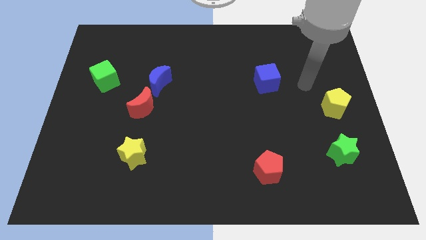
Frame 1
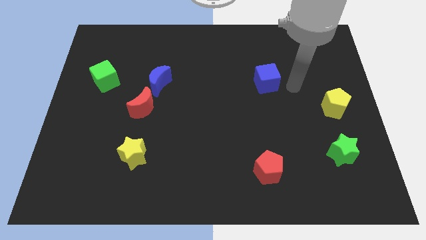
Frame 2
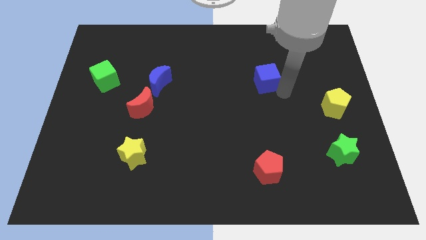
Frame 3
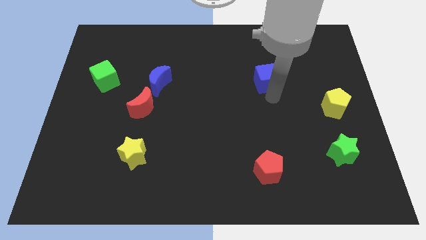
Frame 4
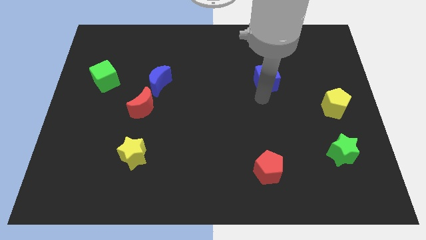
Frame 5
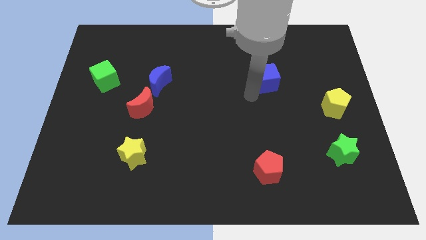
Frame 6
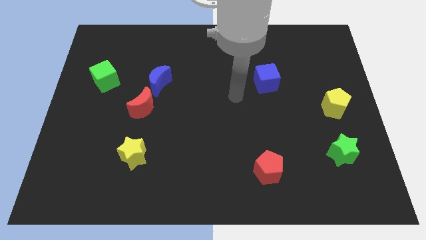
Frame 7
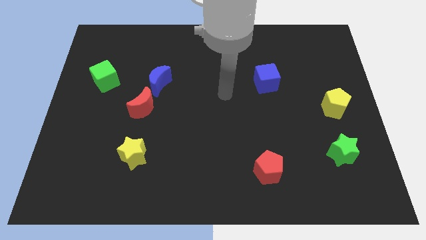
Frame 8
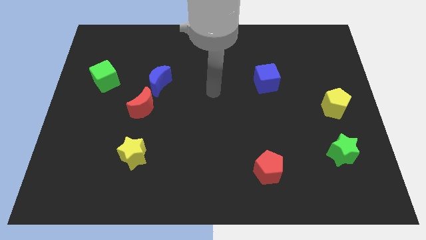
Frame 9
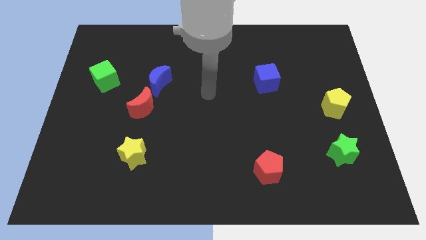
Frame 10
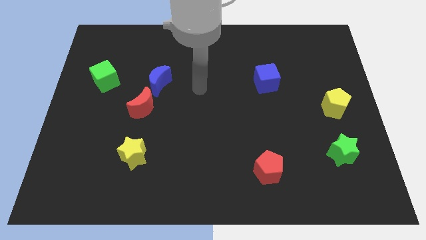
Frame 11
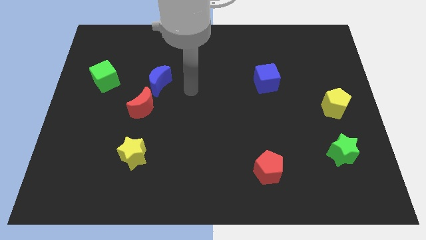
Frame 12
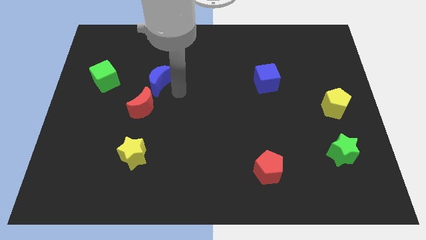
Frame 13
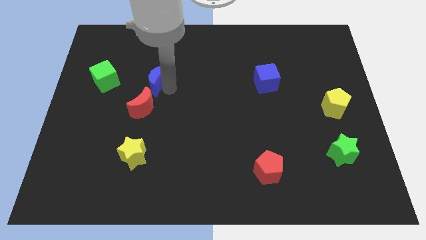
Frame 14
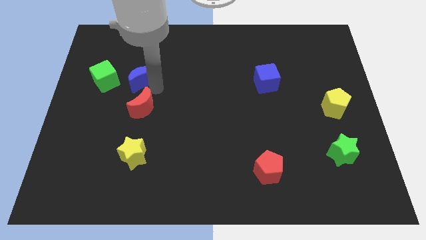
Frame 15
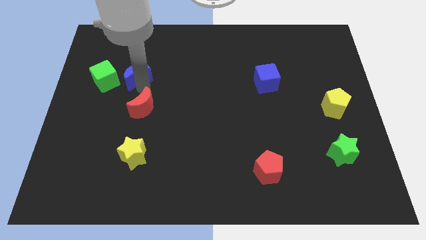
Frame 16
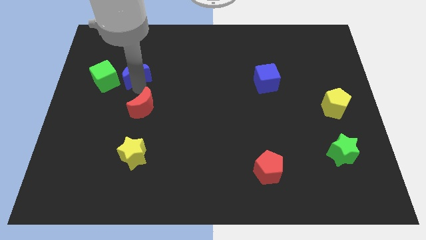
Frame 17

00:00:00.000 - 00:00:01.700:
move the red moon away from the blue moon

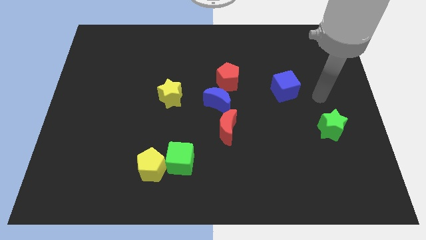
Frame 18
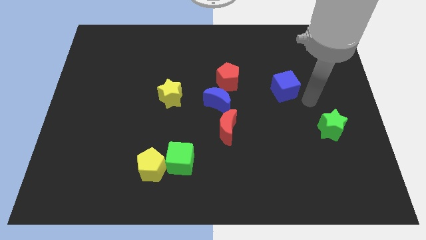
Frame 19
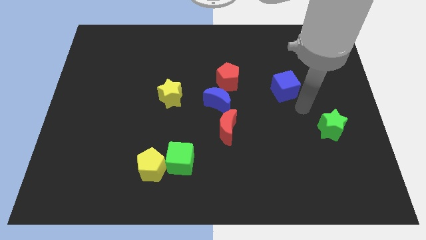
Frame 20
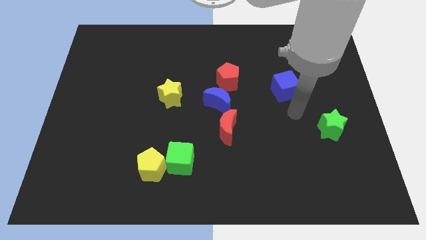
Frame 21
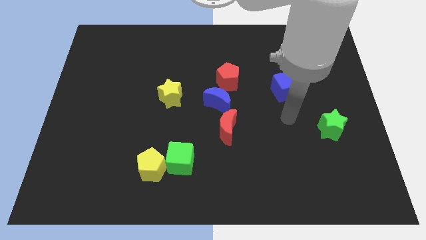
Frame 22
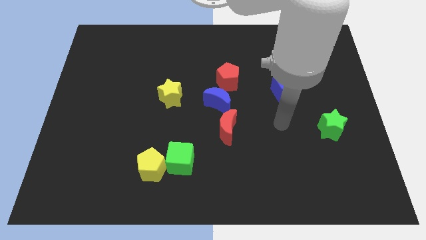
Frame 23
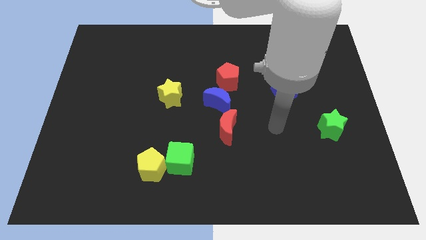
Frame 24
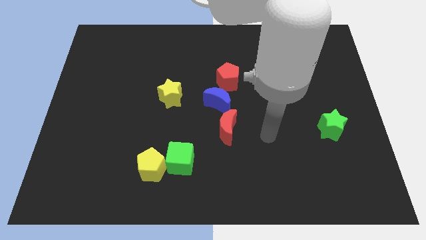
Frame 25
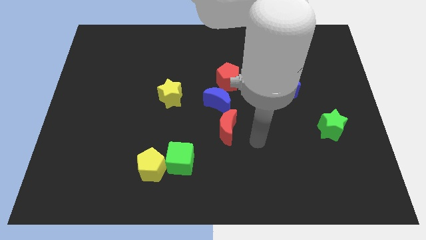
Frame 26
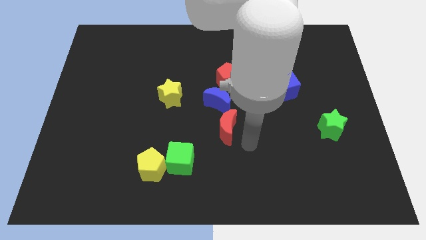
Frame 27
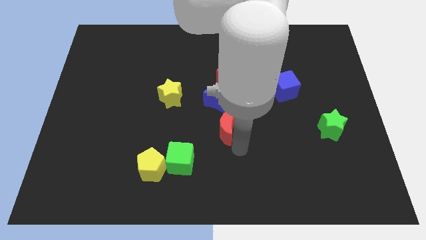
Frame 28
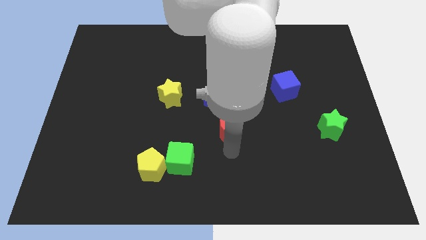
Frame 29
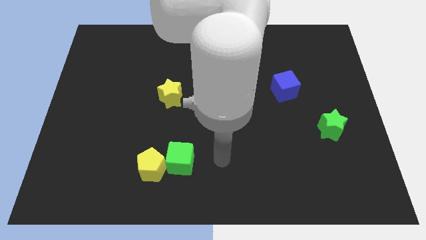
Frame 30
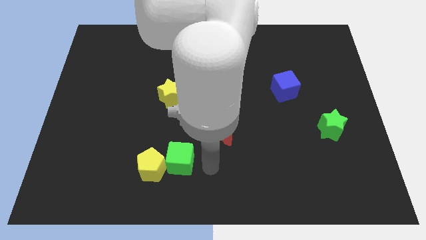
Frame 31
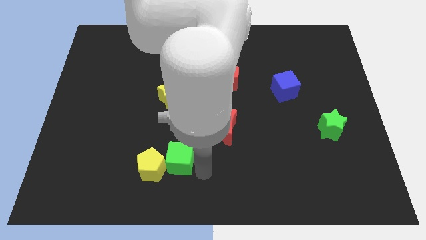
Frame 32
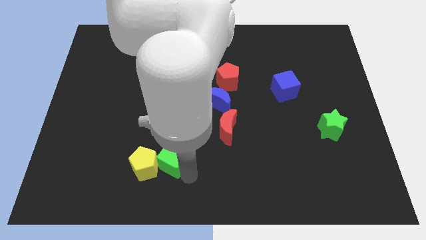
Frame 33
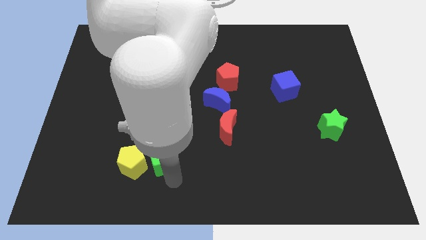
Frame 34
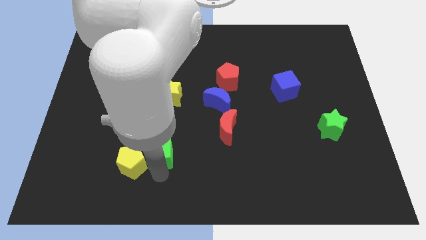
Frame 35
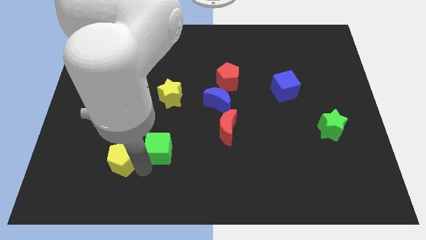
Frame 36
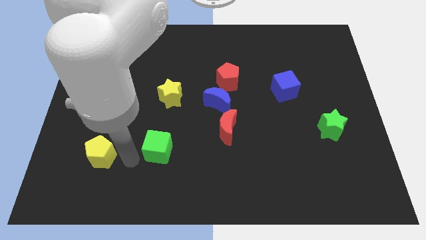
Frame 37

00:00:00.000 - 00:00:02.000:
move the green cube away from the yellow pentagon

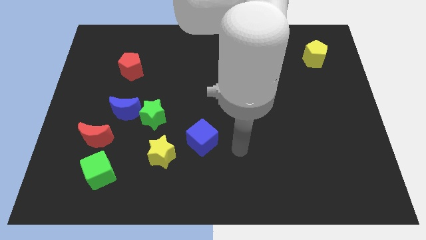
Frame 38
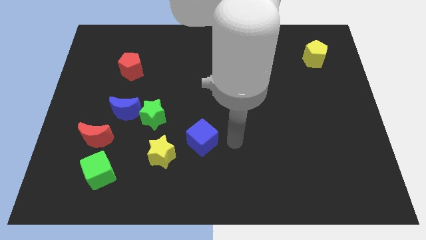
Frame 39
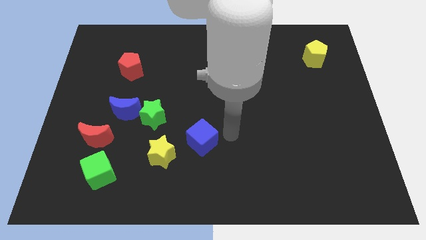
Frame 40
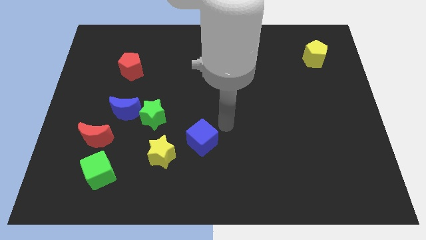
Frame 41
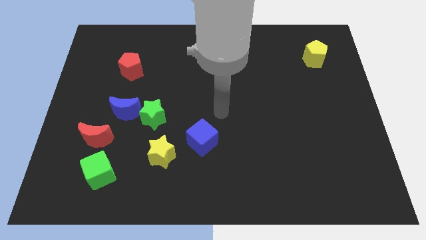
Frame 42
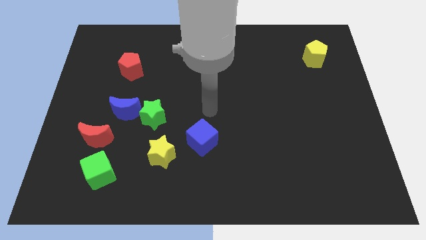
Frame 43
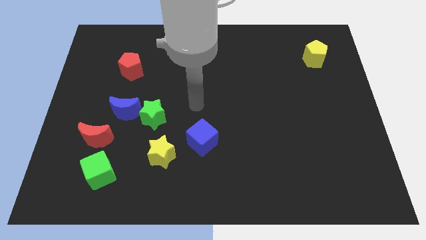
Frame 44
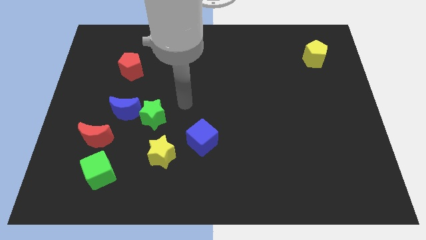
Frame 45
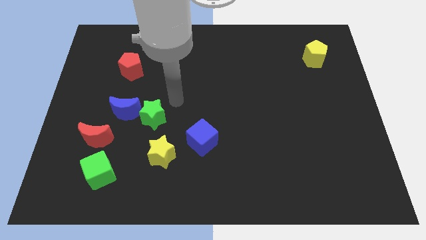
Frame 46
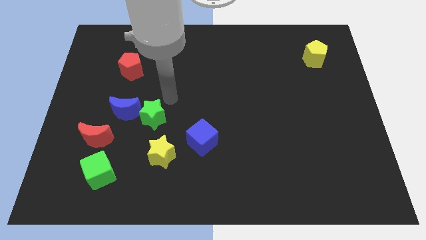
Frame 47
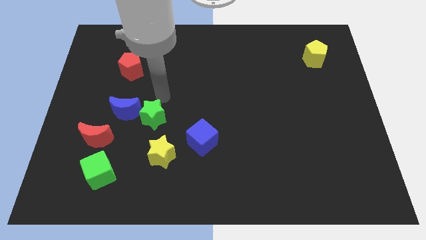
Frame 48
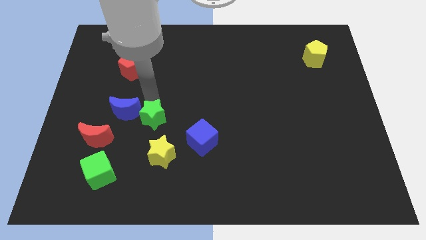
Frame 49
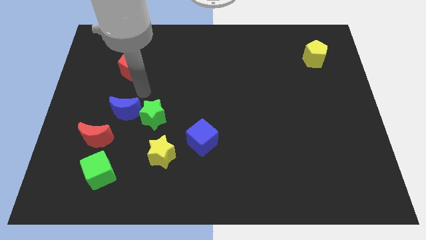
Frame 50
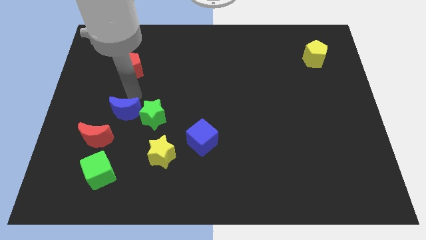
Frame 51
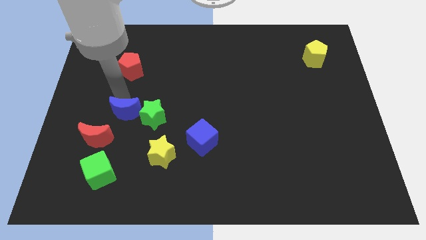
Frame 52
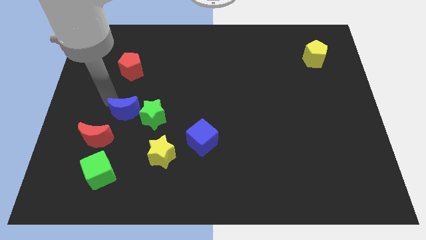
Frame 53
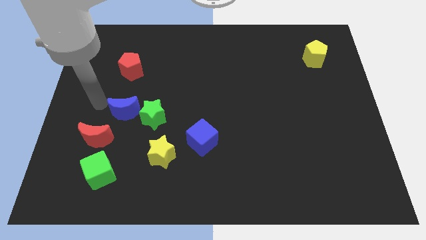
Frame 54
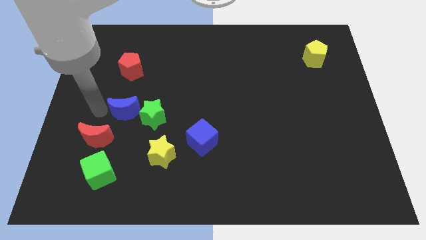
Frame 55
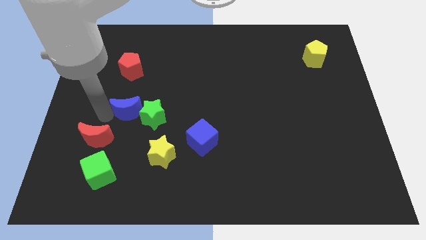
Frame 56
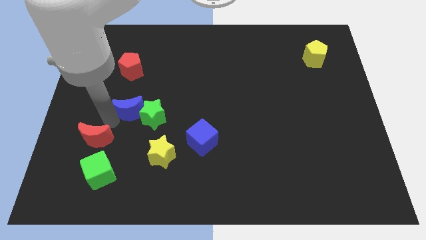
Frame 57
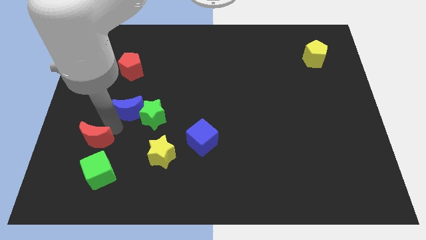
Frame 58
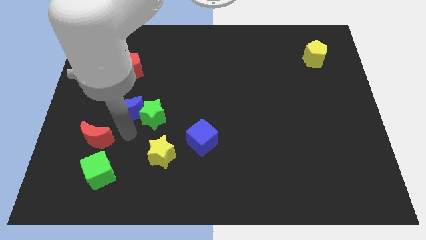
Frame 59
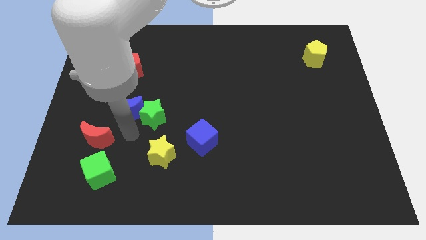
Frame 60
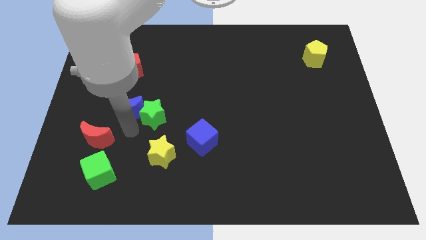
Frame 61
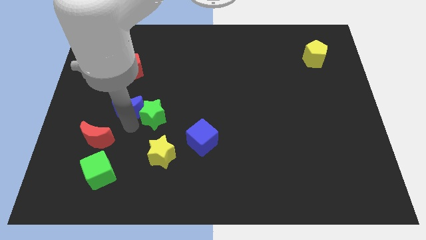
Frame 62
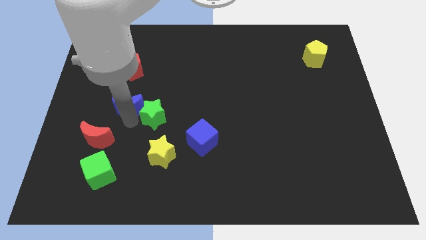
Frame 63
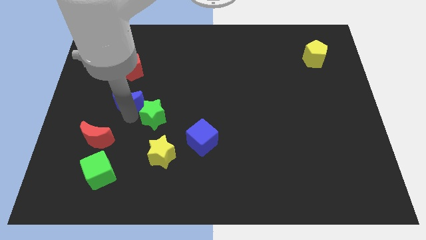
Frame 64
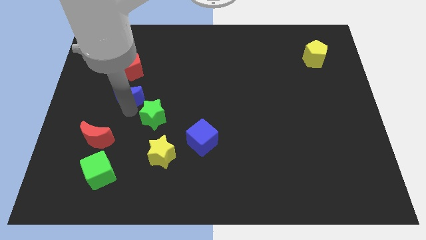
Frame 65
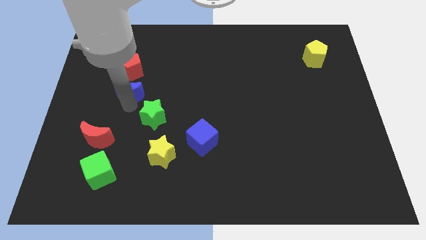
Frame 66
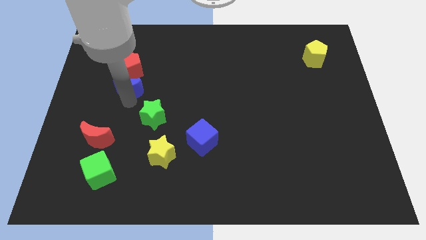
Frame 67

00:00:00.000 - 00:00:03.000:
move the blue moon away from the green star and red moon

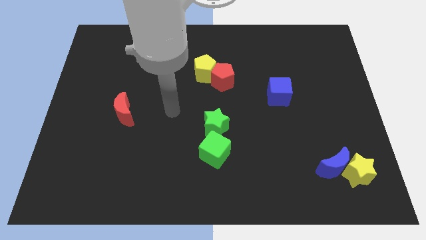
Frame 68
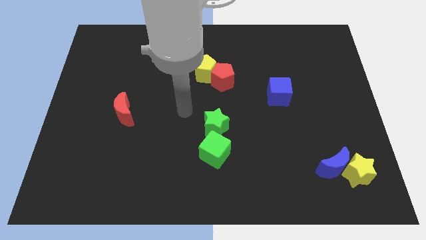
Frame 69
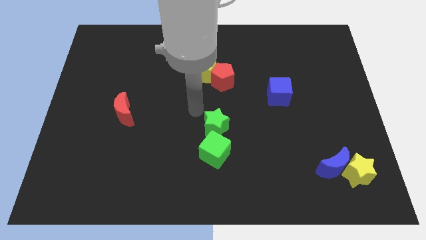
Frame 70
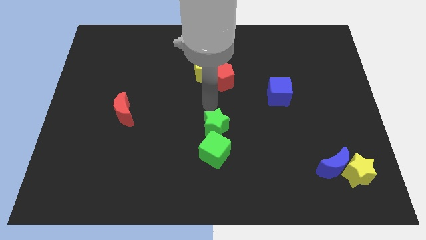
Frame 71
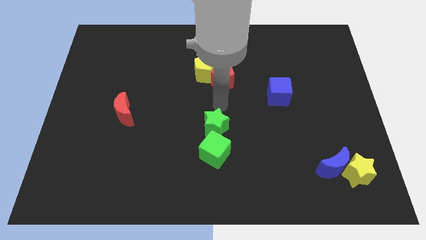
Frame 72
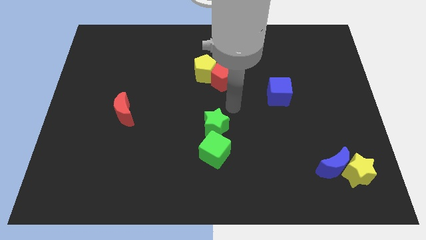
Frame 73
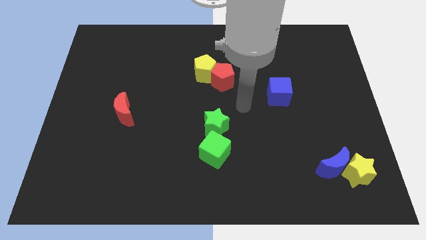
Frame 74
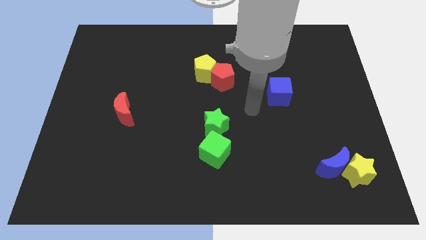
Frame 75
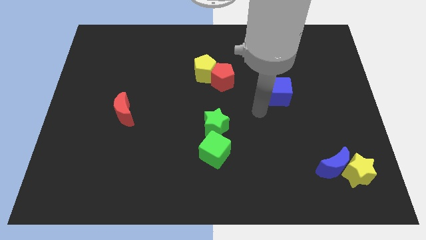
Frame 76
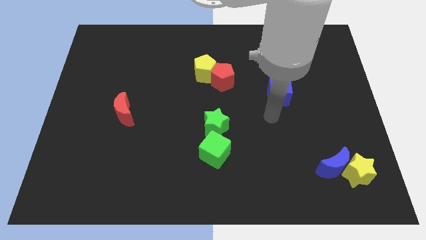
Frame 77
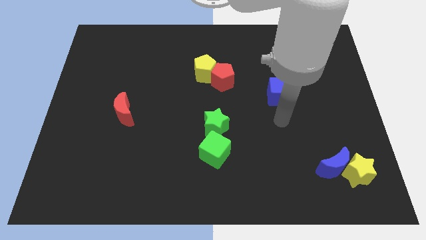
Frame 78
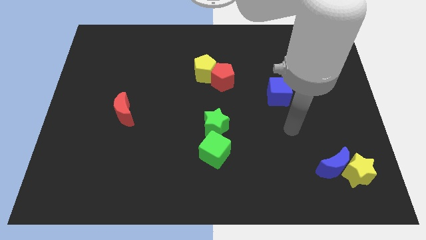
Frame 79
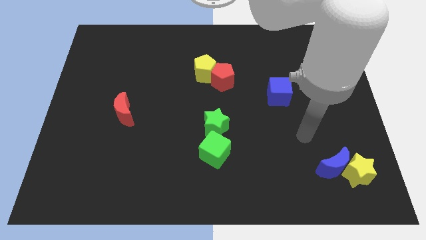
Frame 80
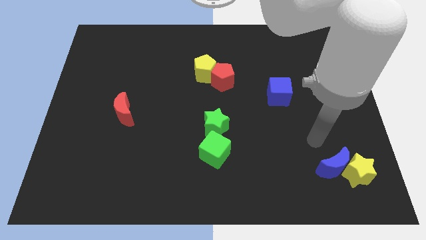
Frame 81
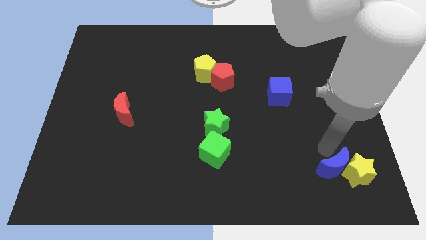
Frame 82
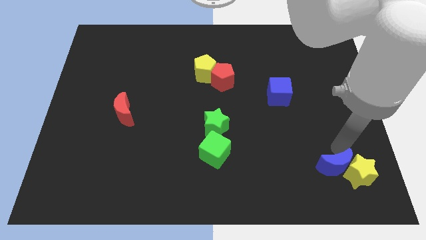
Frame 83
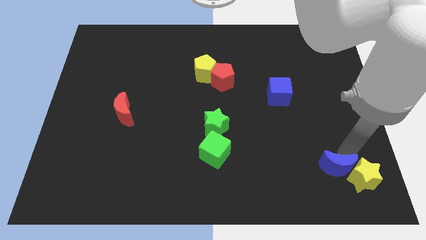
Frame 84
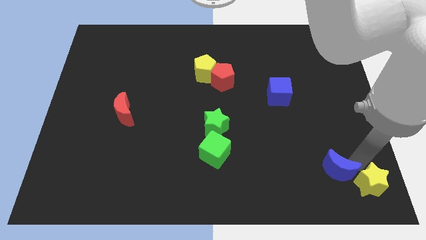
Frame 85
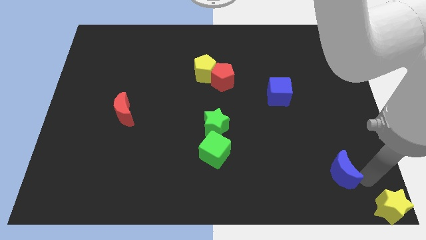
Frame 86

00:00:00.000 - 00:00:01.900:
move the blue moon away from the yellow star

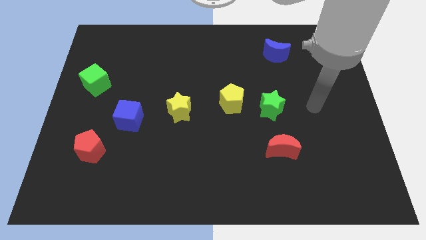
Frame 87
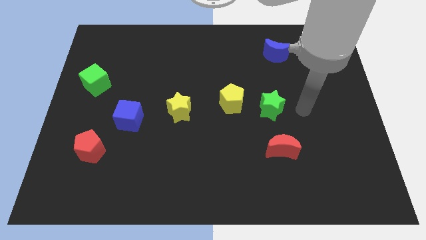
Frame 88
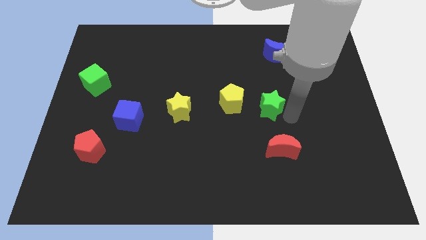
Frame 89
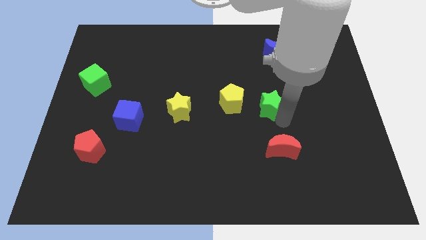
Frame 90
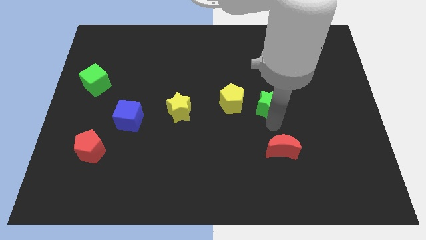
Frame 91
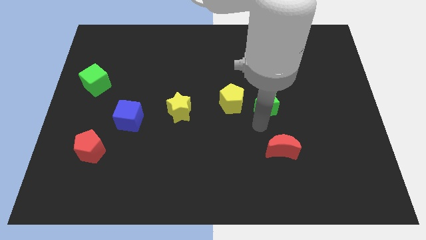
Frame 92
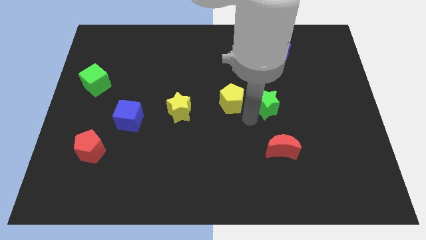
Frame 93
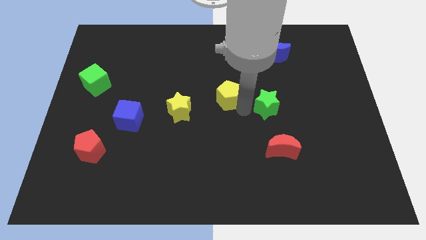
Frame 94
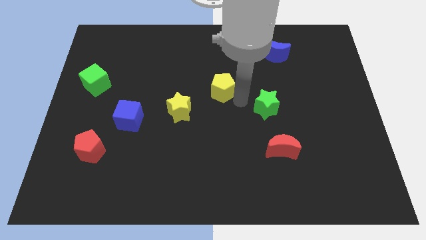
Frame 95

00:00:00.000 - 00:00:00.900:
move the green star away from the yellow pentagon
